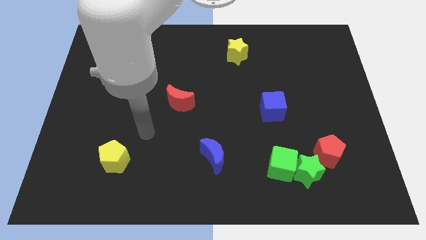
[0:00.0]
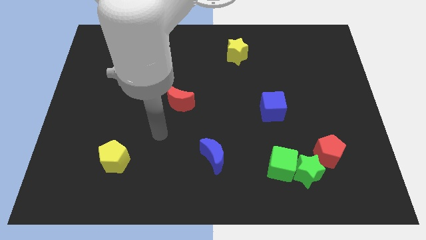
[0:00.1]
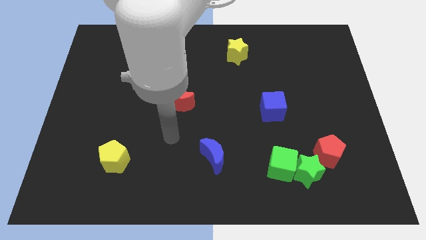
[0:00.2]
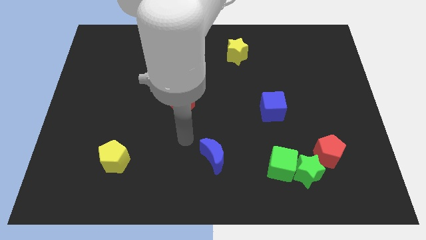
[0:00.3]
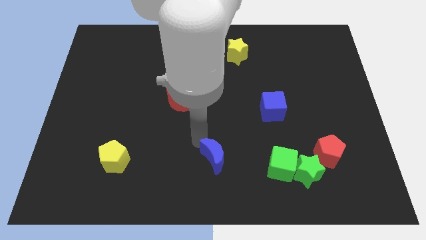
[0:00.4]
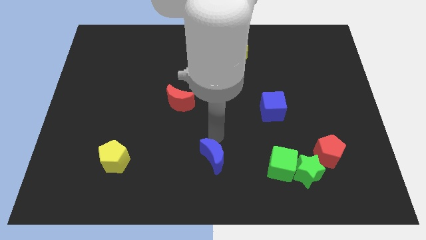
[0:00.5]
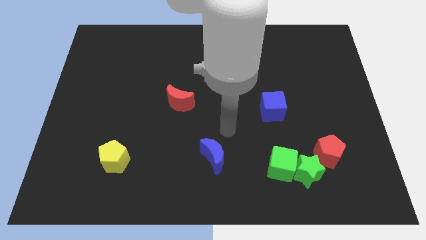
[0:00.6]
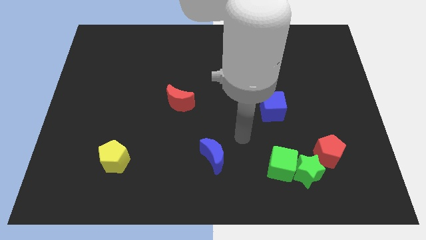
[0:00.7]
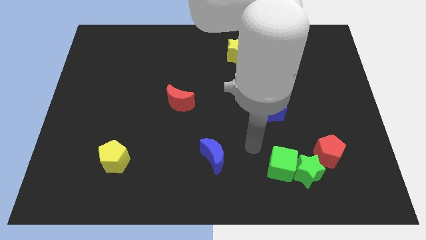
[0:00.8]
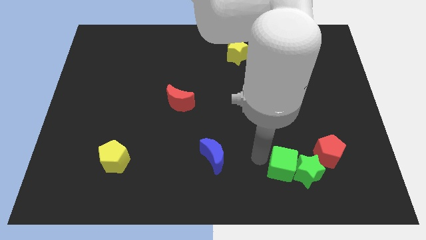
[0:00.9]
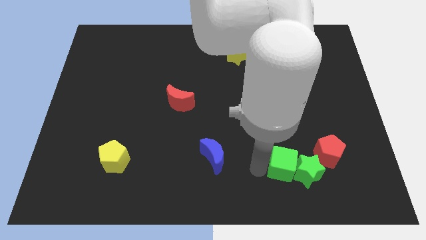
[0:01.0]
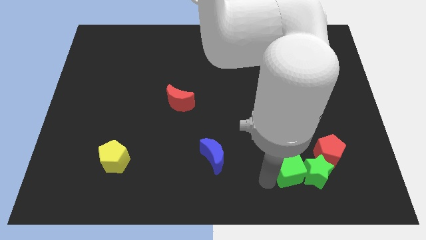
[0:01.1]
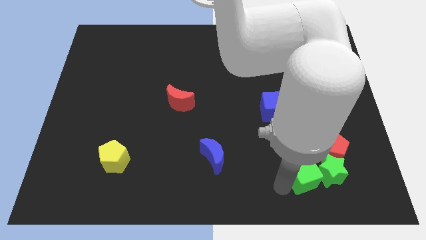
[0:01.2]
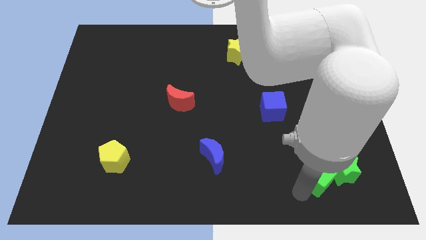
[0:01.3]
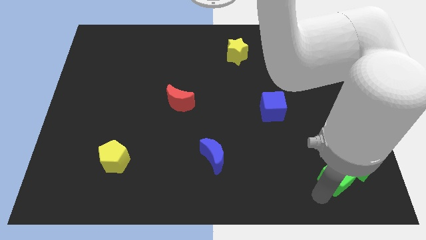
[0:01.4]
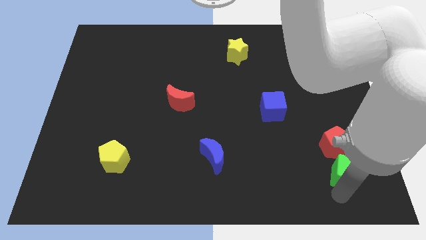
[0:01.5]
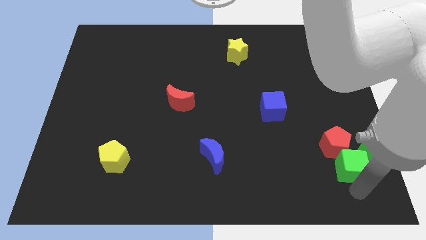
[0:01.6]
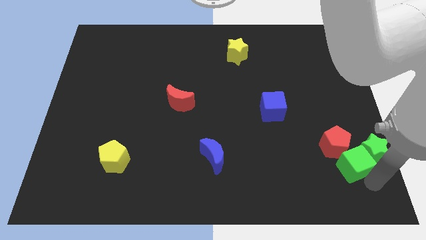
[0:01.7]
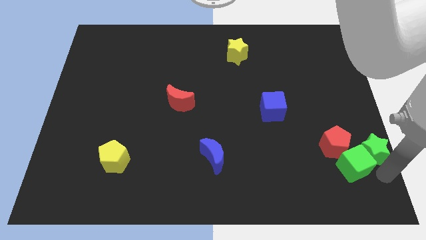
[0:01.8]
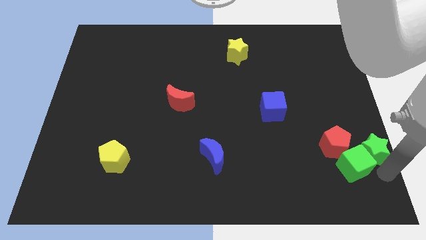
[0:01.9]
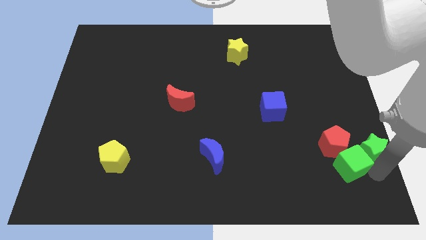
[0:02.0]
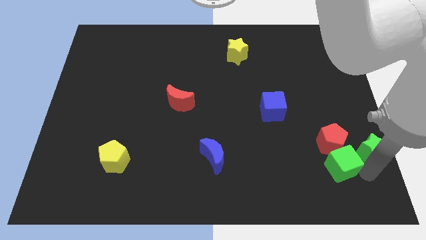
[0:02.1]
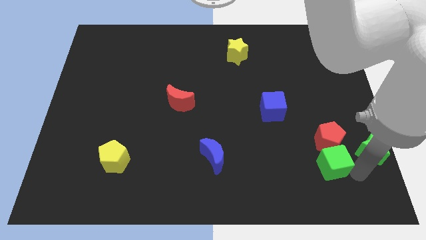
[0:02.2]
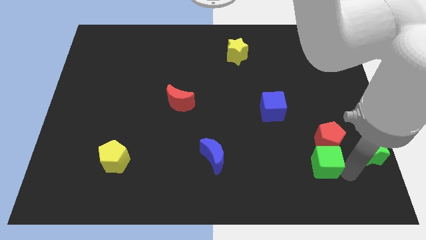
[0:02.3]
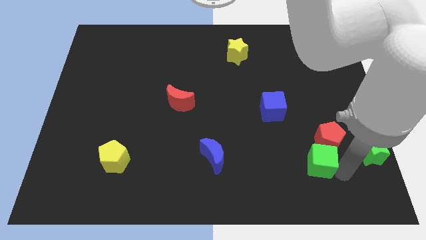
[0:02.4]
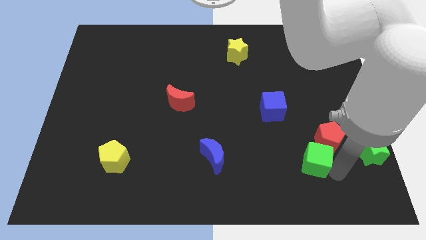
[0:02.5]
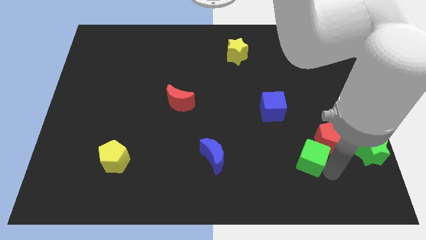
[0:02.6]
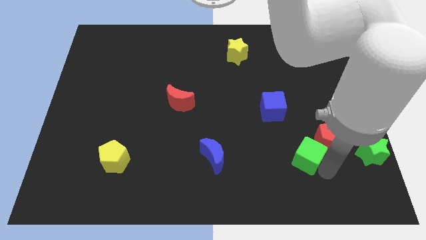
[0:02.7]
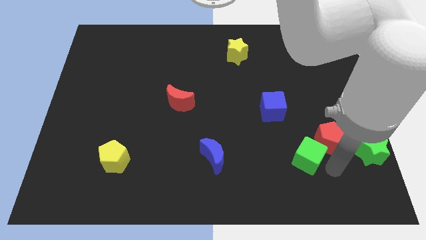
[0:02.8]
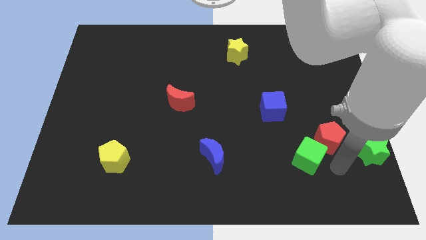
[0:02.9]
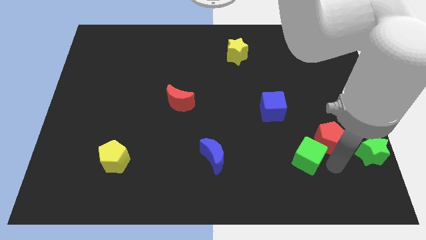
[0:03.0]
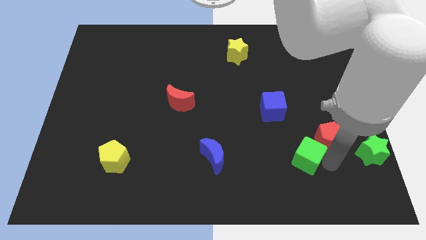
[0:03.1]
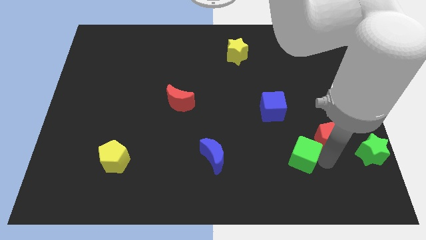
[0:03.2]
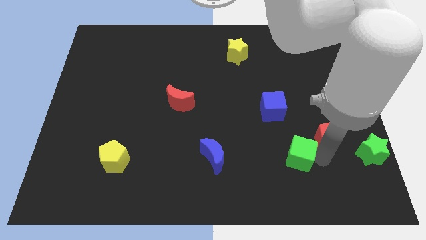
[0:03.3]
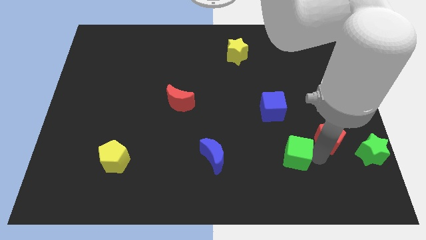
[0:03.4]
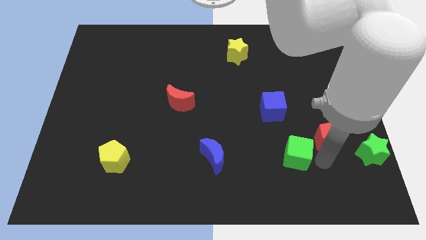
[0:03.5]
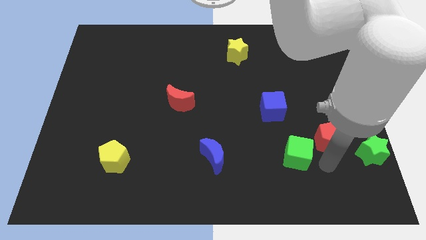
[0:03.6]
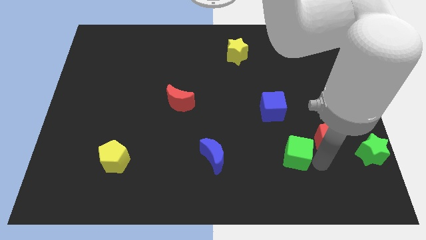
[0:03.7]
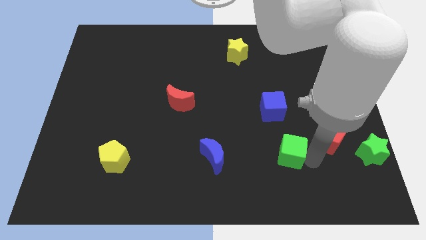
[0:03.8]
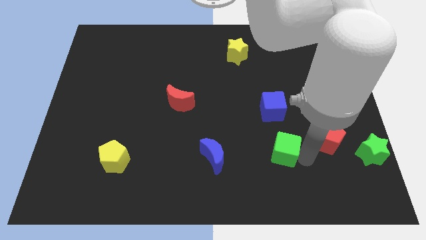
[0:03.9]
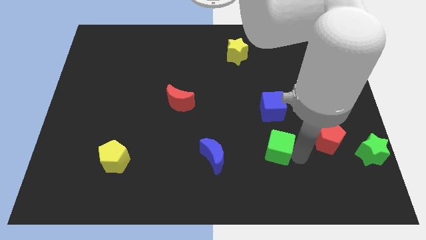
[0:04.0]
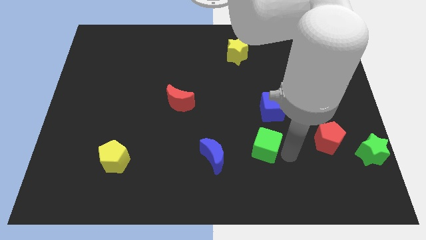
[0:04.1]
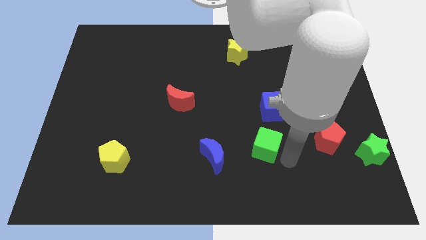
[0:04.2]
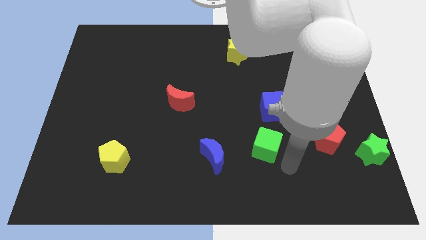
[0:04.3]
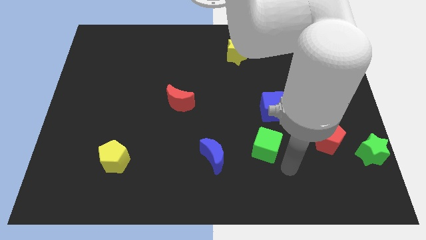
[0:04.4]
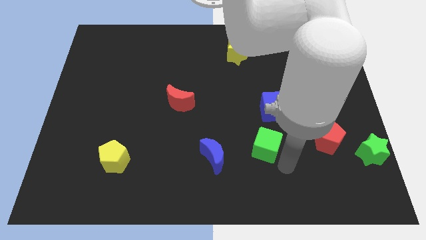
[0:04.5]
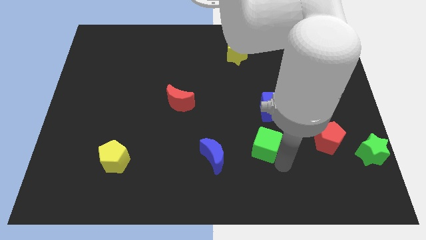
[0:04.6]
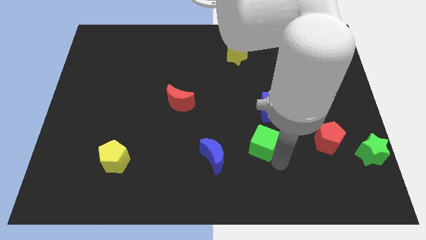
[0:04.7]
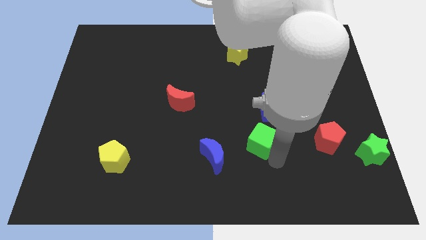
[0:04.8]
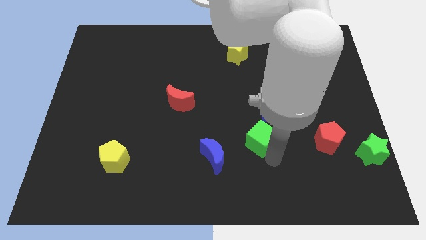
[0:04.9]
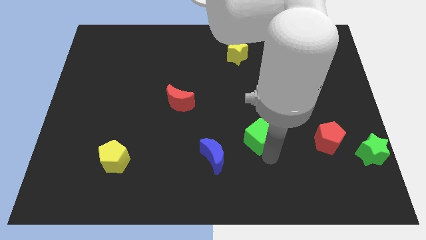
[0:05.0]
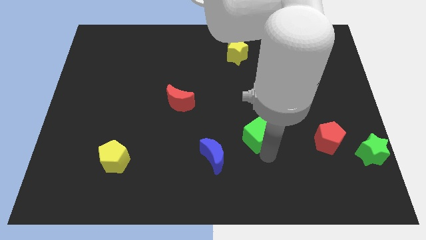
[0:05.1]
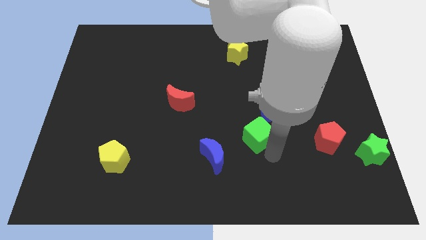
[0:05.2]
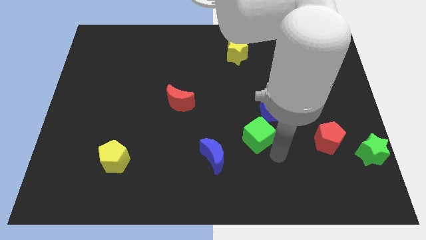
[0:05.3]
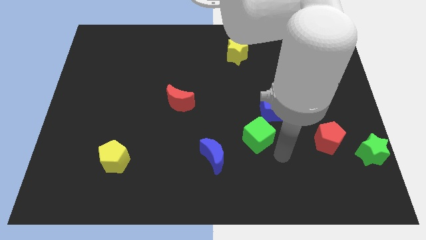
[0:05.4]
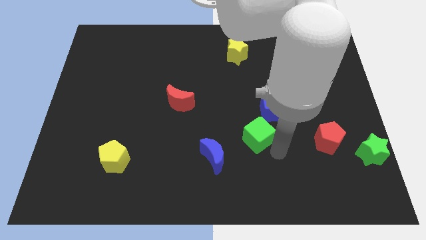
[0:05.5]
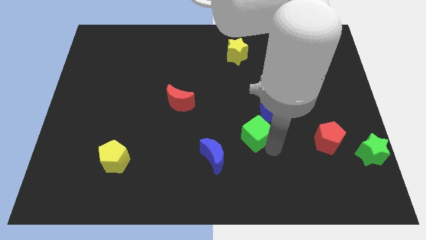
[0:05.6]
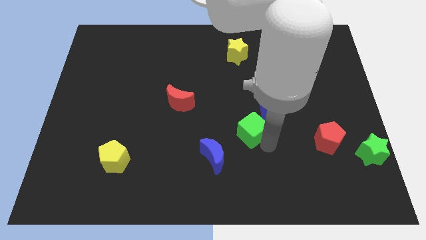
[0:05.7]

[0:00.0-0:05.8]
move the green cube to the middle of the board
